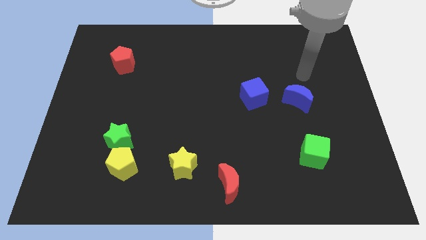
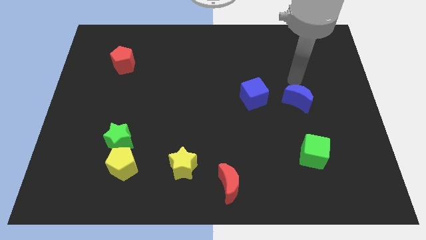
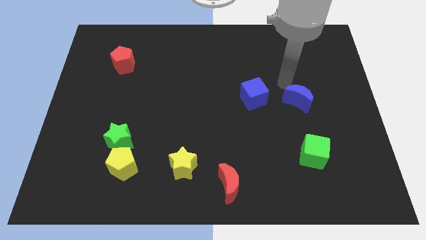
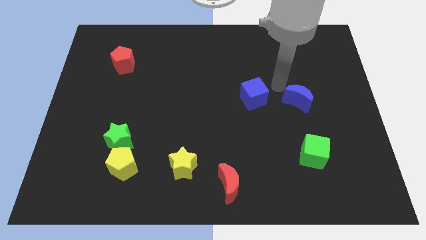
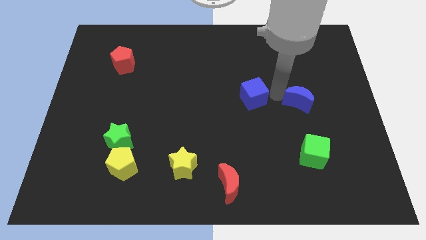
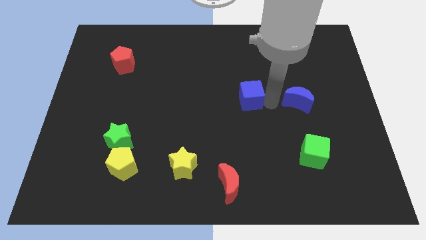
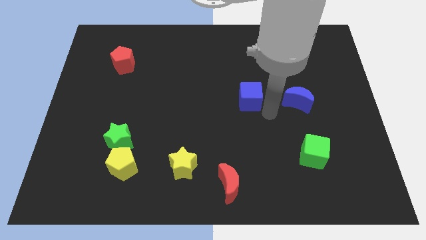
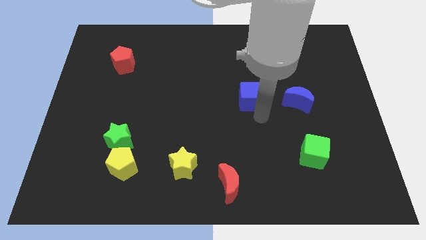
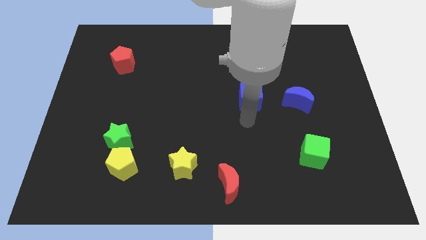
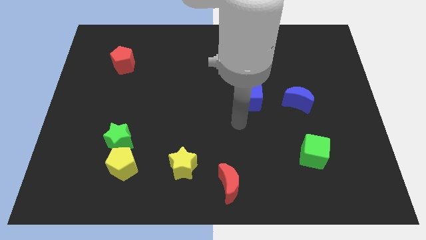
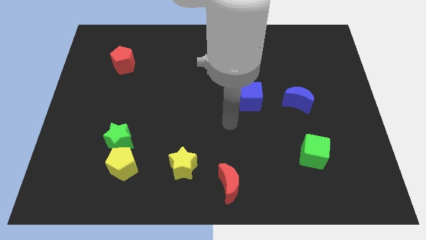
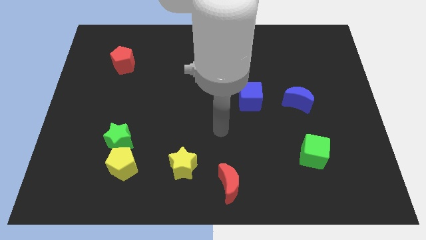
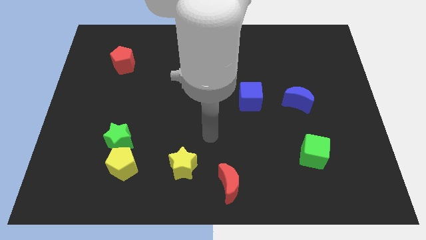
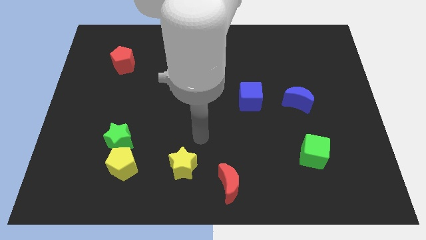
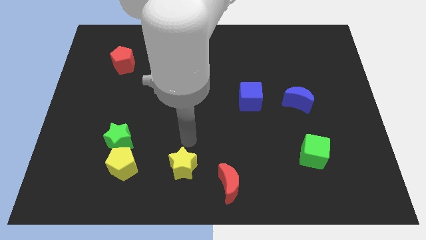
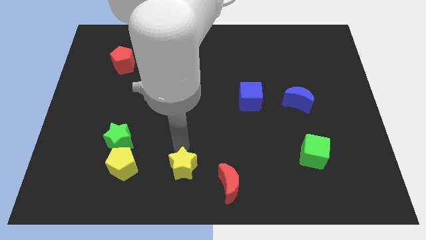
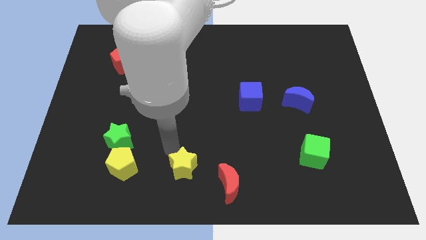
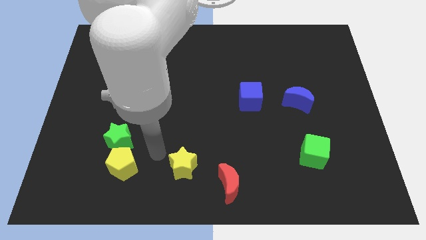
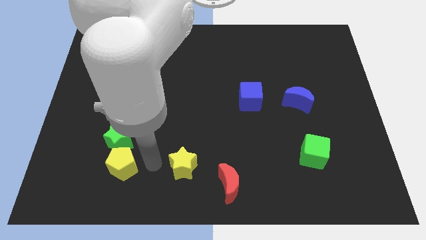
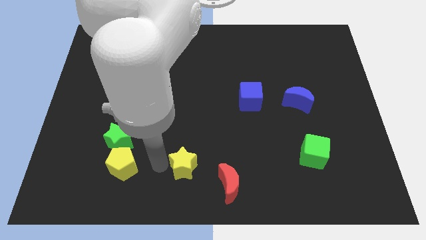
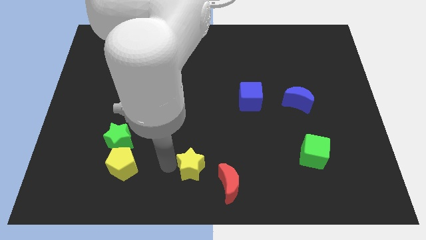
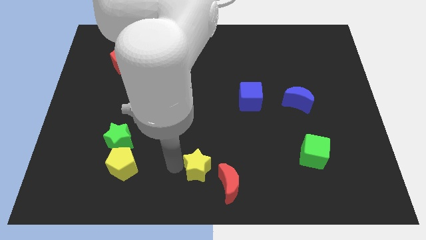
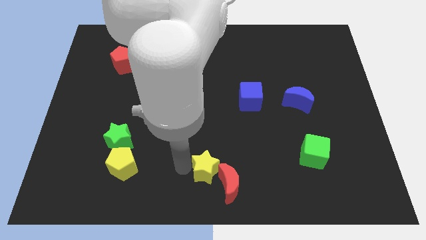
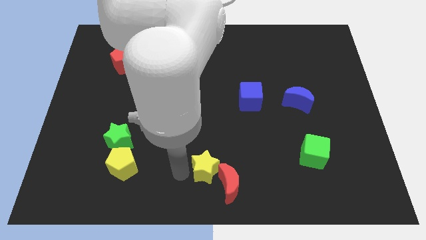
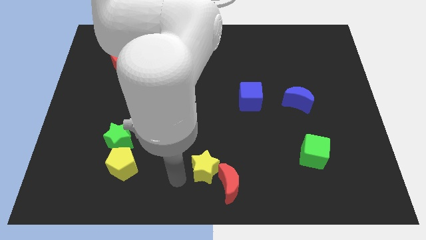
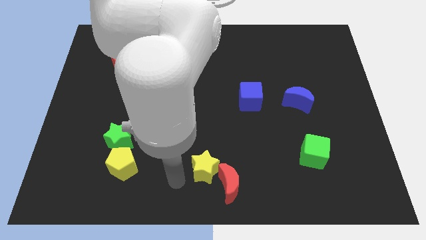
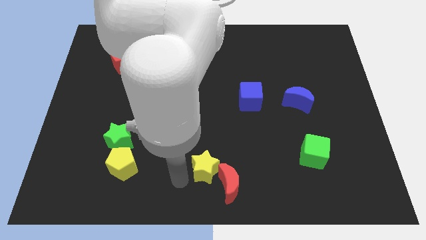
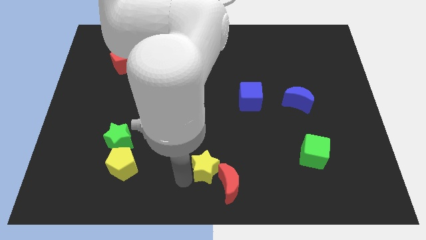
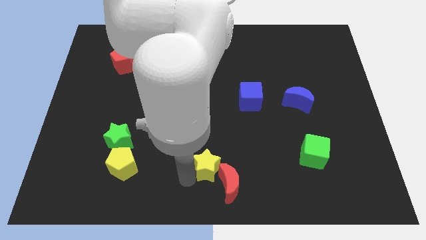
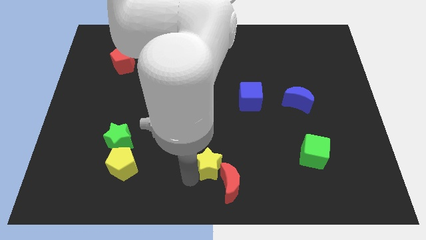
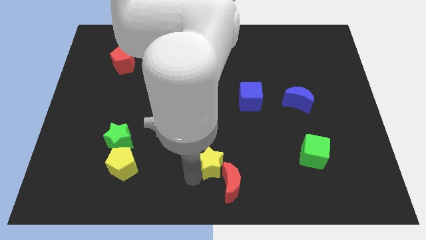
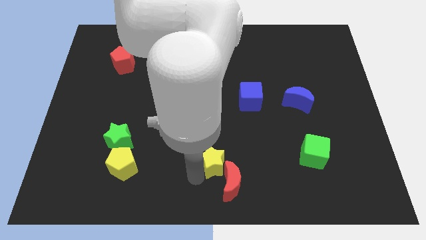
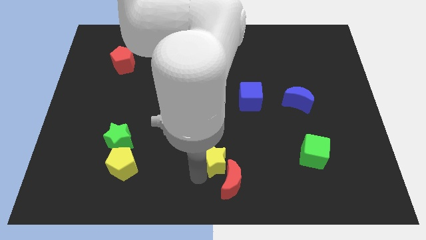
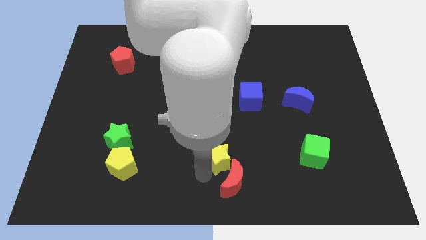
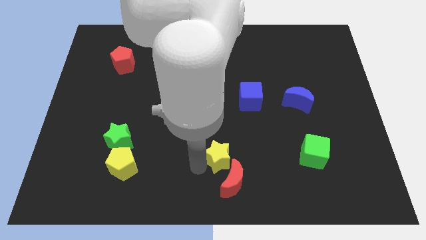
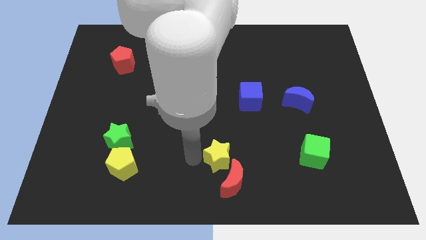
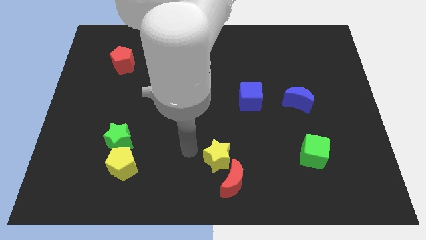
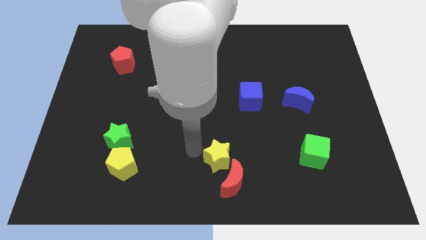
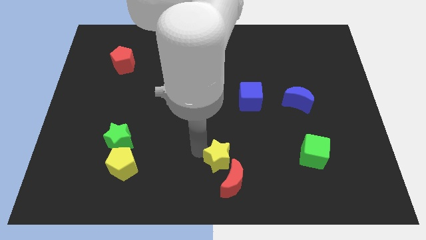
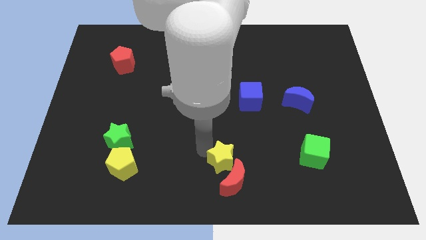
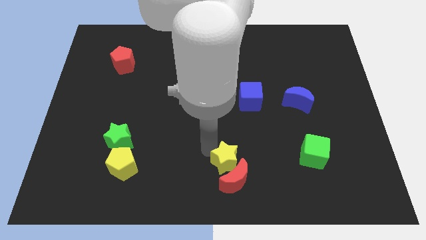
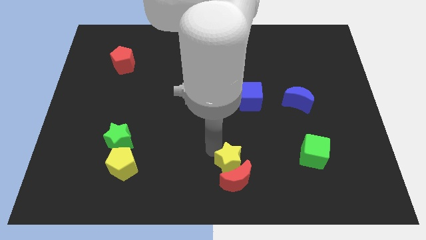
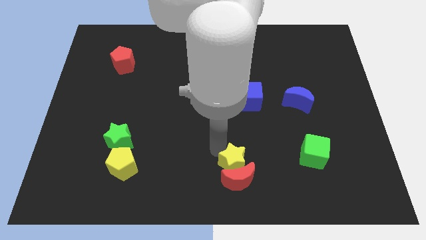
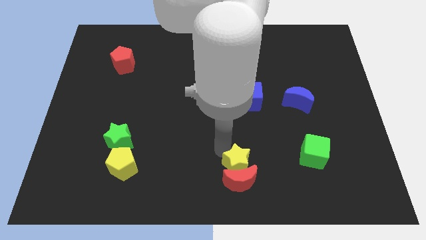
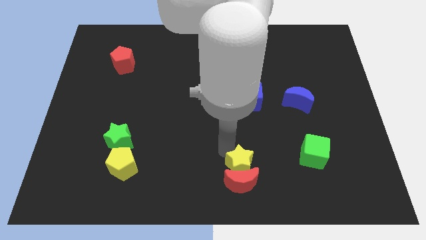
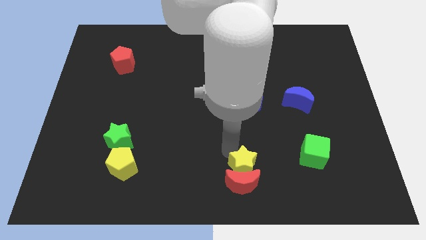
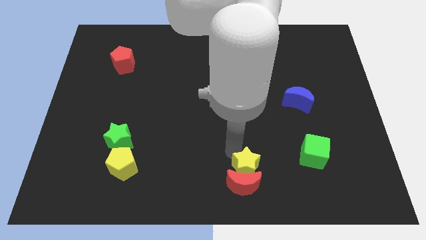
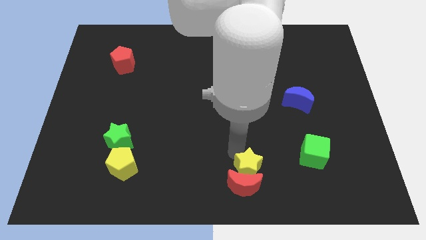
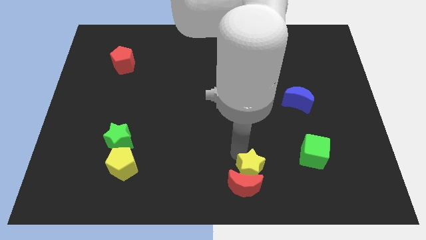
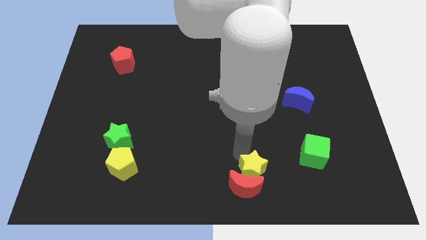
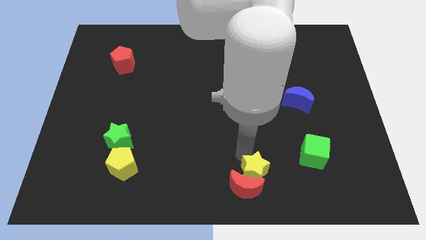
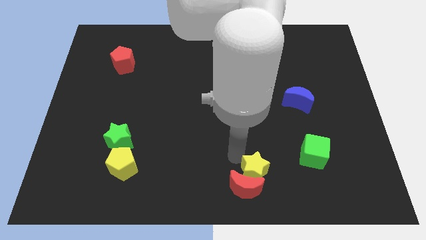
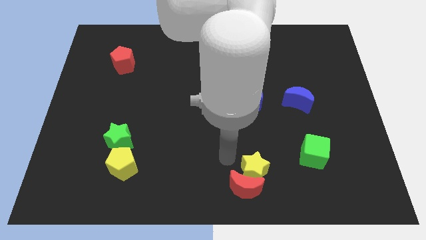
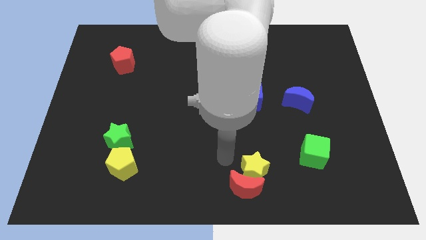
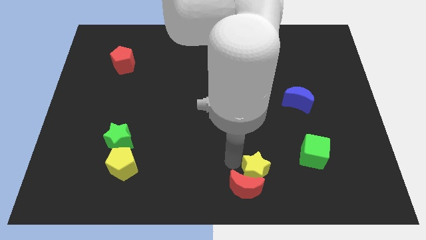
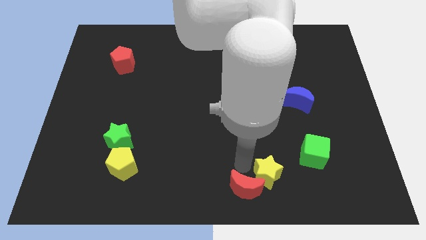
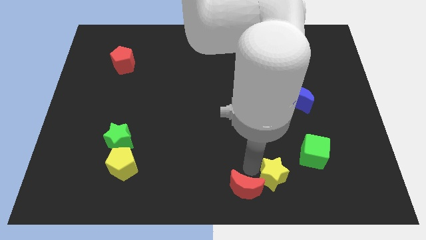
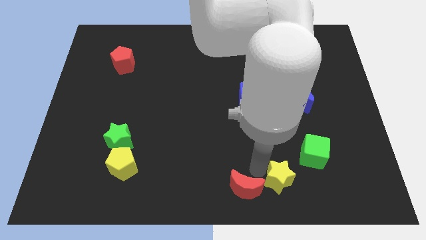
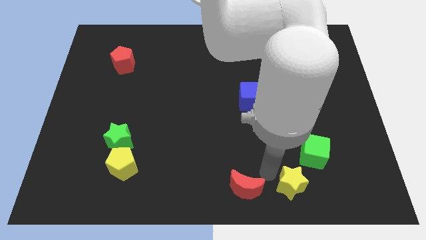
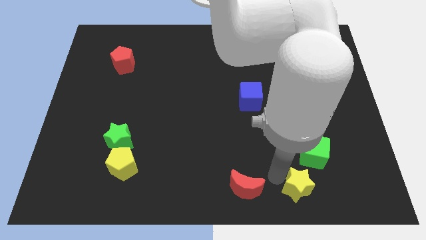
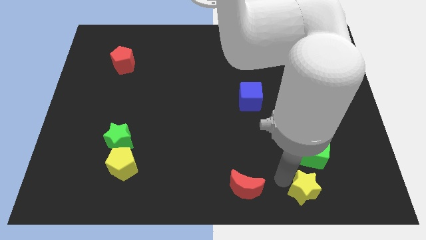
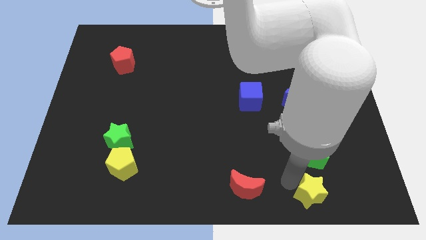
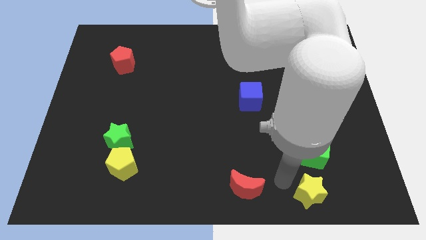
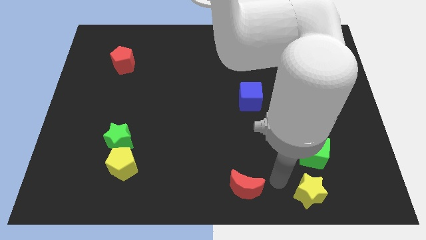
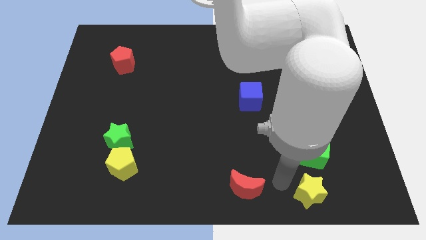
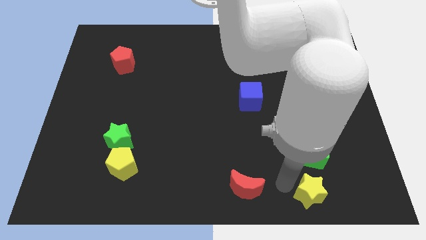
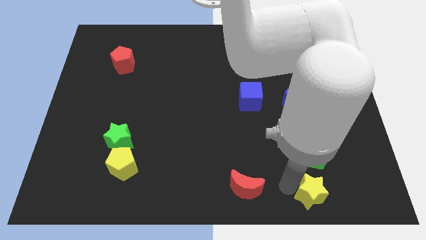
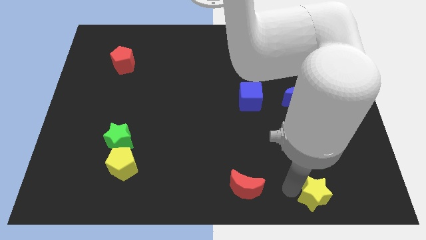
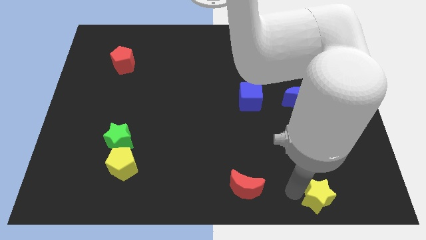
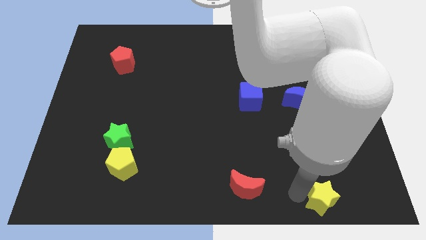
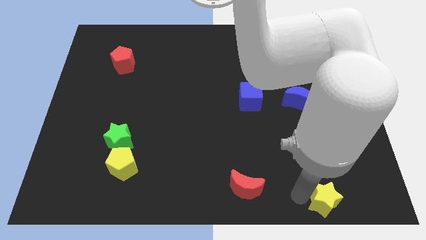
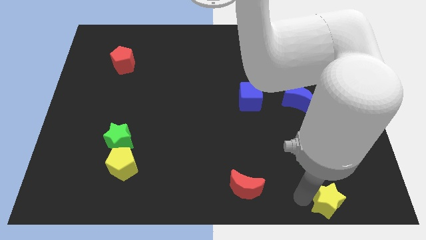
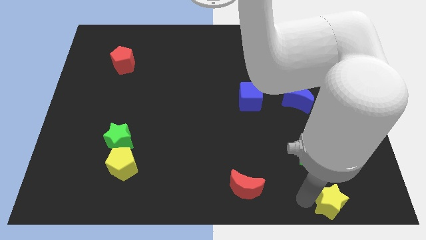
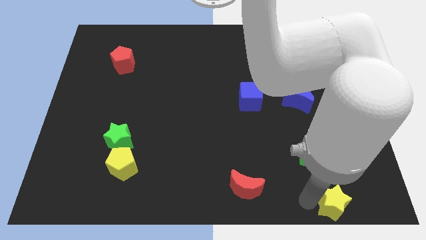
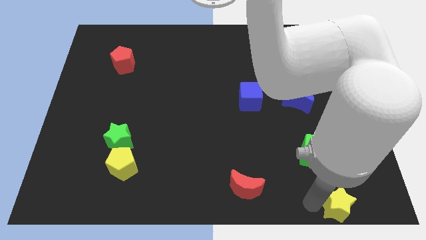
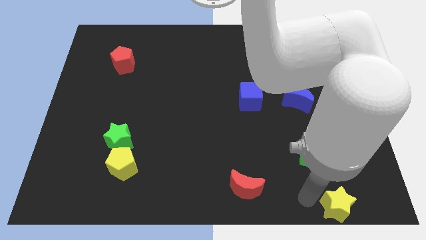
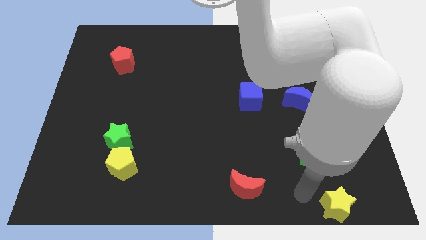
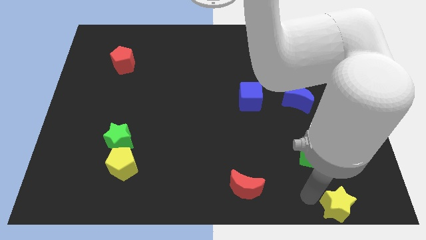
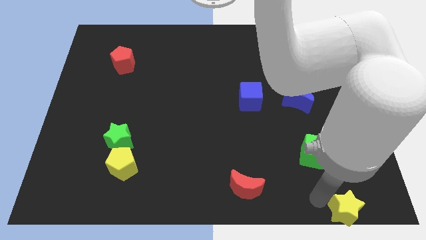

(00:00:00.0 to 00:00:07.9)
put the yellow star to the bottom right
